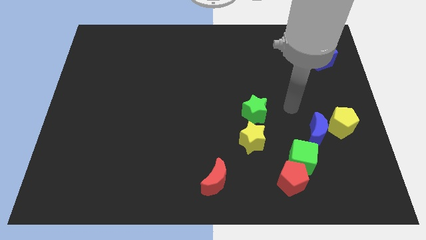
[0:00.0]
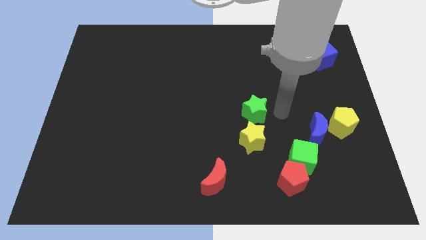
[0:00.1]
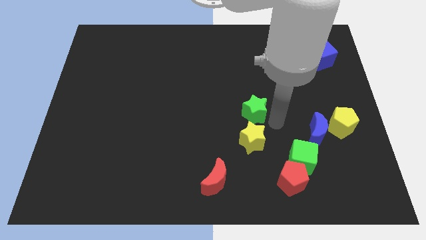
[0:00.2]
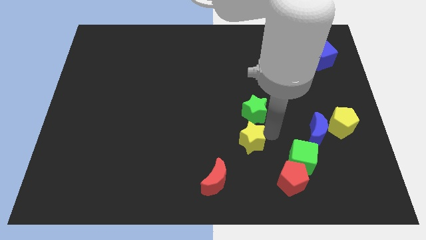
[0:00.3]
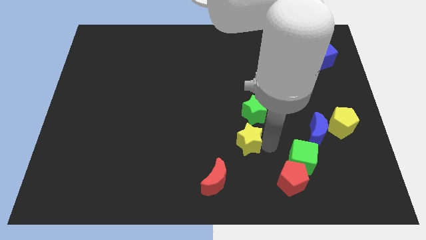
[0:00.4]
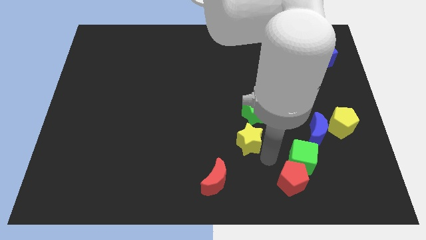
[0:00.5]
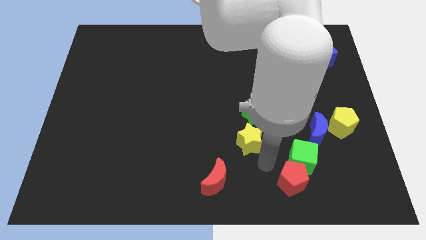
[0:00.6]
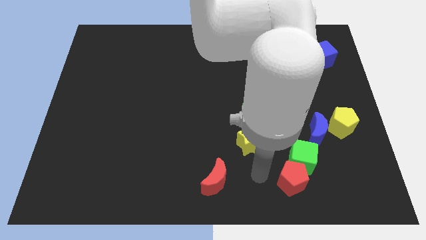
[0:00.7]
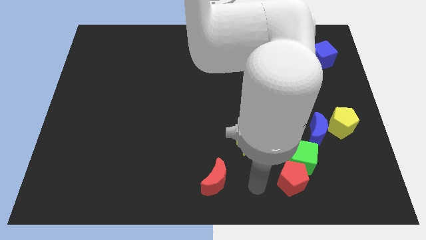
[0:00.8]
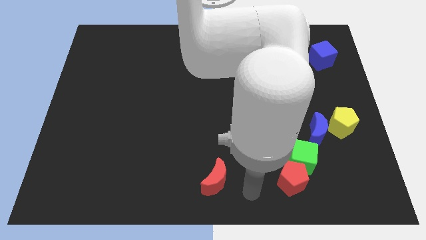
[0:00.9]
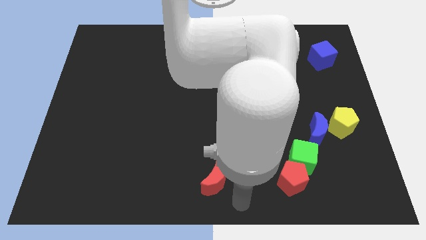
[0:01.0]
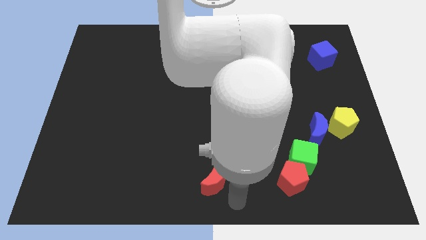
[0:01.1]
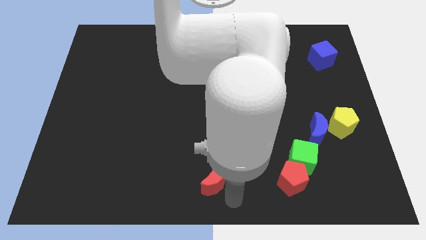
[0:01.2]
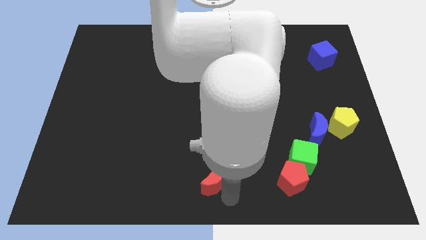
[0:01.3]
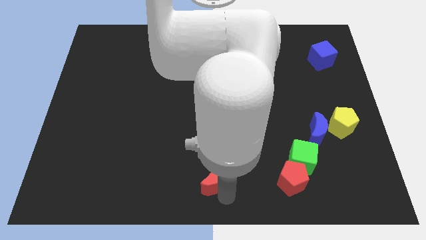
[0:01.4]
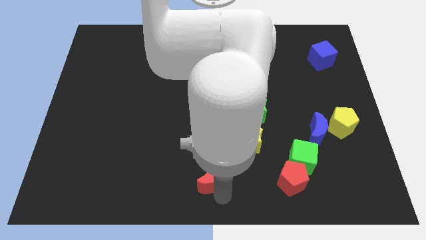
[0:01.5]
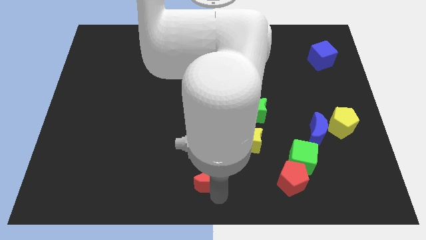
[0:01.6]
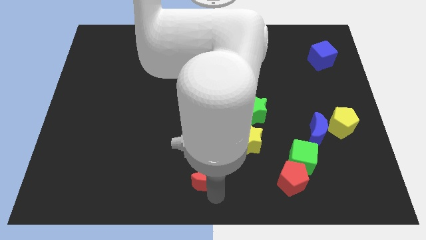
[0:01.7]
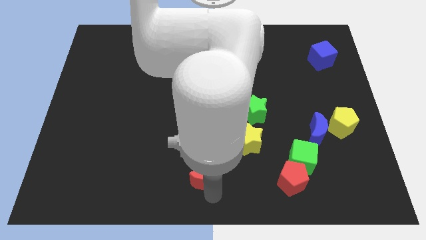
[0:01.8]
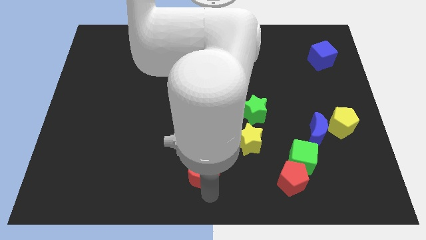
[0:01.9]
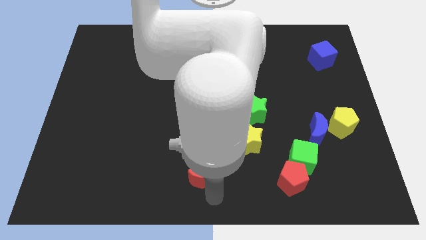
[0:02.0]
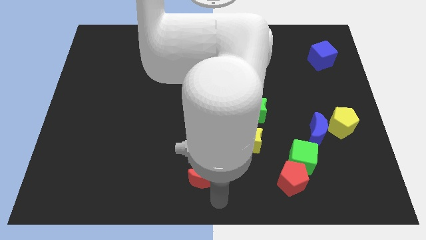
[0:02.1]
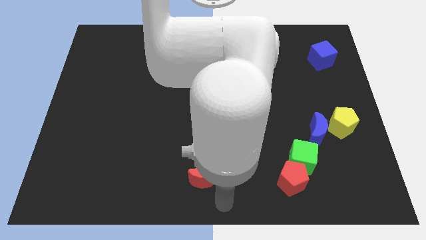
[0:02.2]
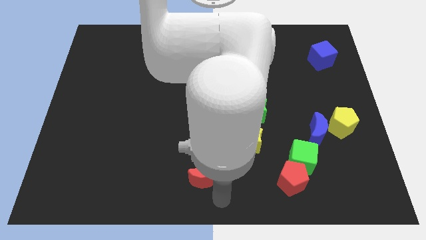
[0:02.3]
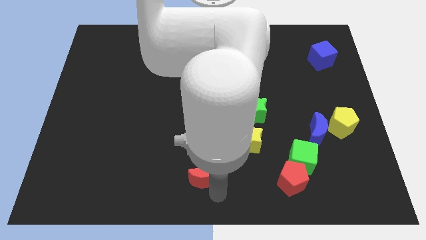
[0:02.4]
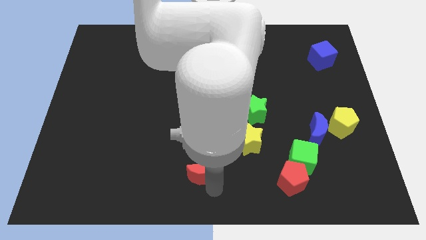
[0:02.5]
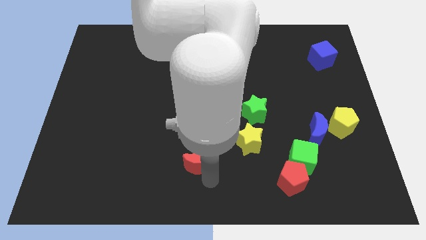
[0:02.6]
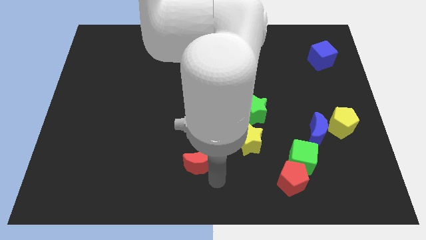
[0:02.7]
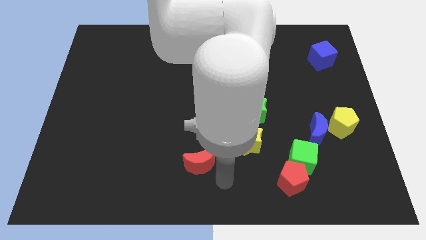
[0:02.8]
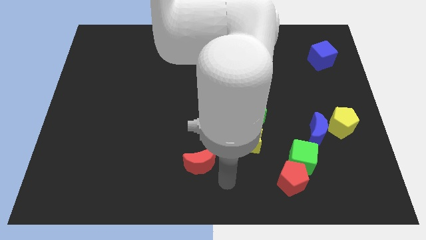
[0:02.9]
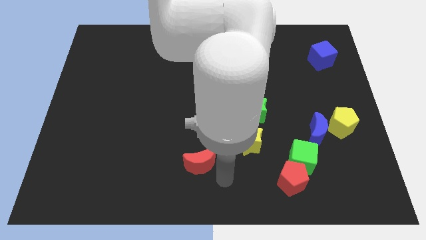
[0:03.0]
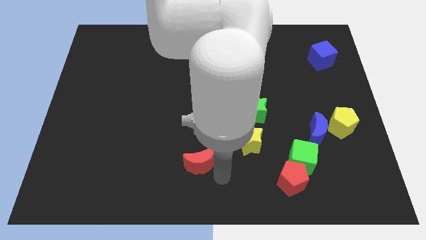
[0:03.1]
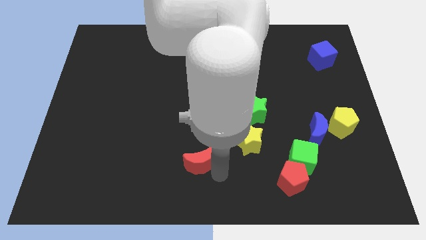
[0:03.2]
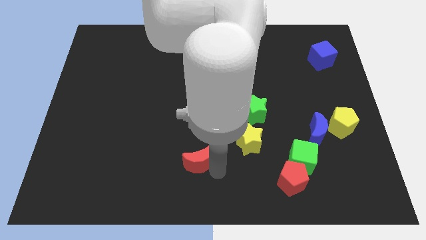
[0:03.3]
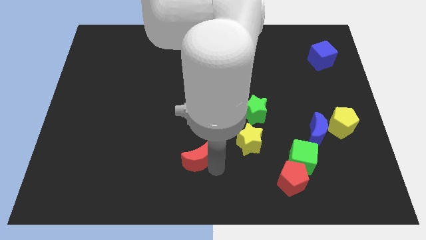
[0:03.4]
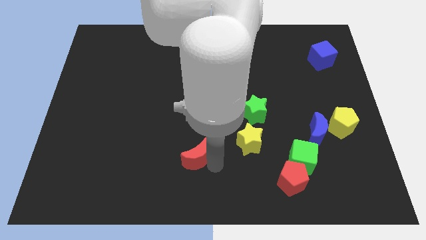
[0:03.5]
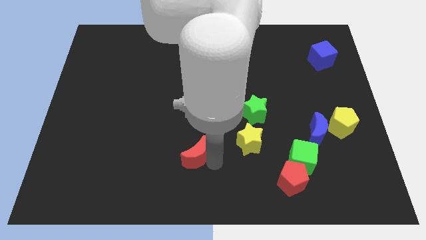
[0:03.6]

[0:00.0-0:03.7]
slide the red moon upwards and left a little

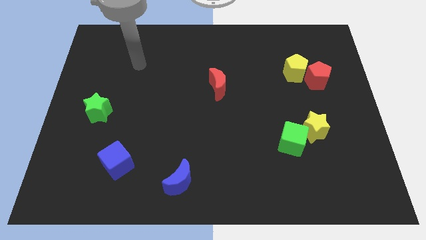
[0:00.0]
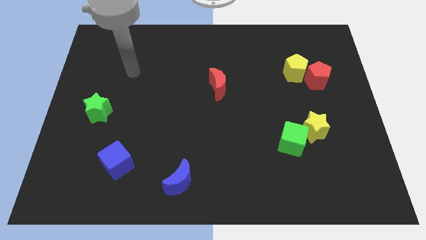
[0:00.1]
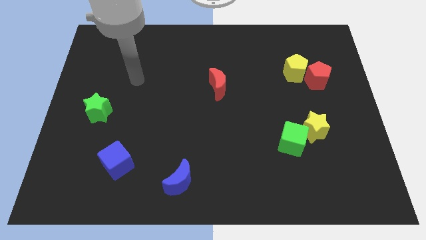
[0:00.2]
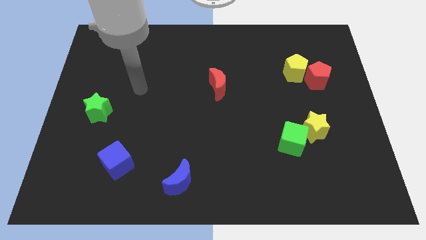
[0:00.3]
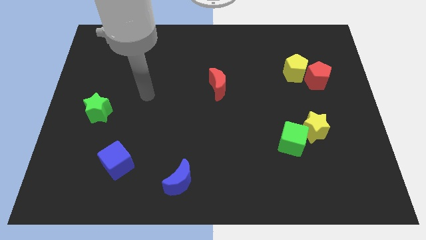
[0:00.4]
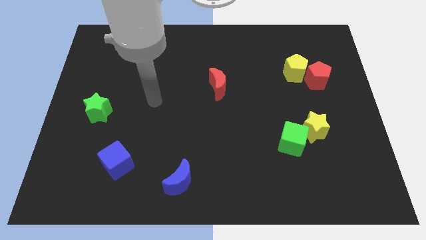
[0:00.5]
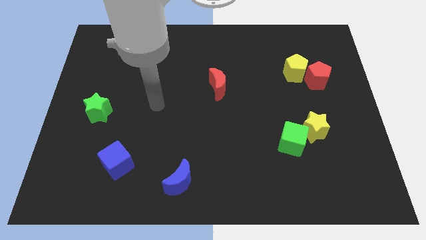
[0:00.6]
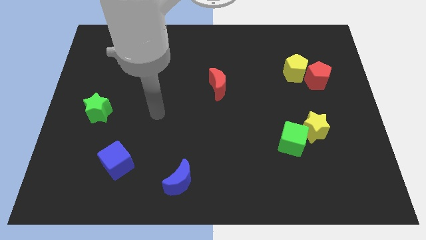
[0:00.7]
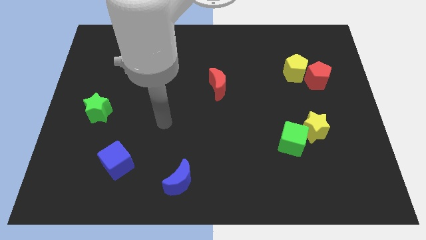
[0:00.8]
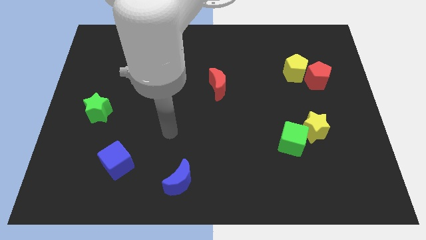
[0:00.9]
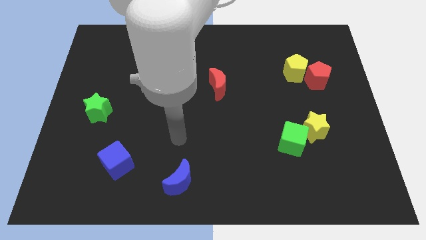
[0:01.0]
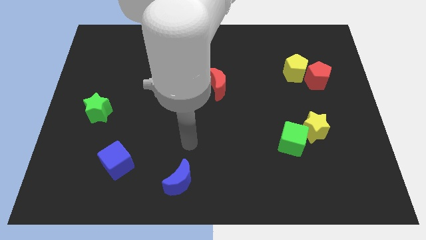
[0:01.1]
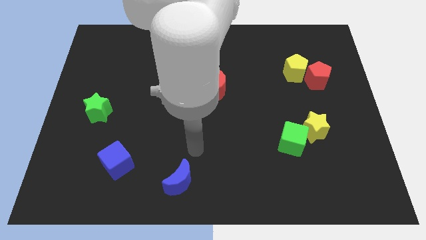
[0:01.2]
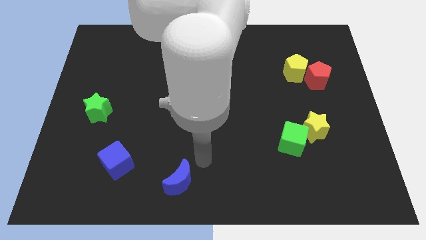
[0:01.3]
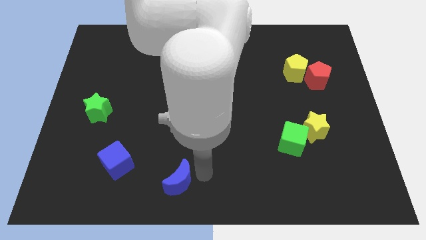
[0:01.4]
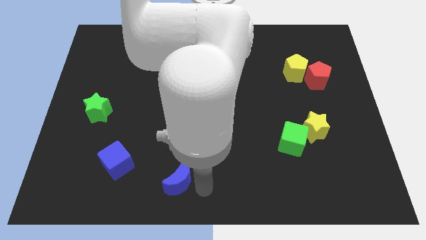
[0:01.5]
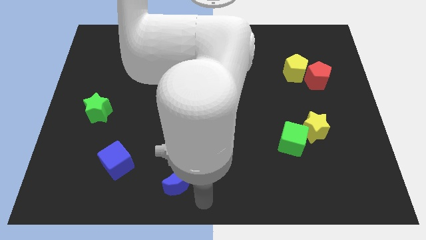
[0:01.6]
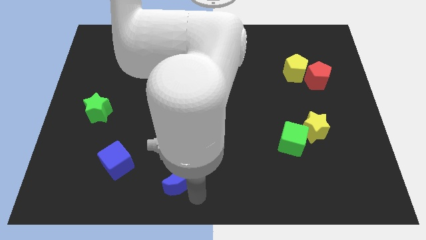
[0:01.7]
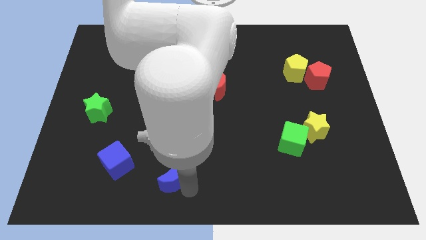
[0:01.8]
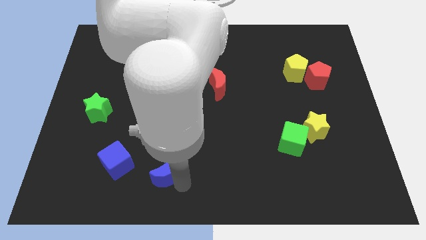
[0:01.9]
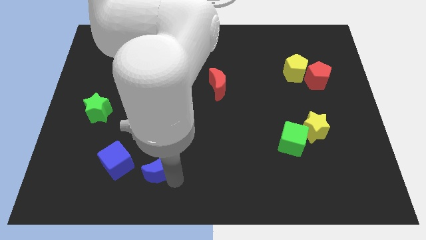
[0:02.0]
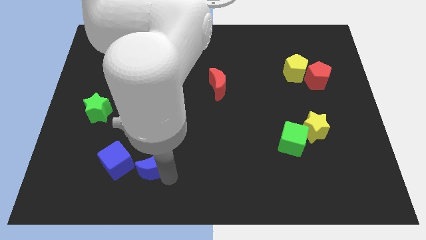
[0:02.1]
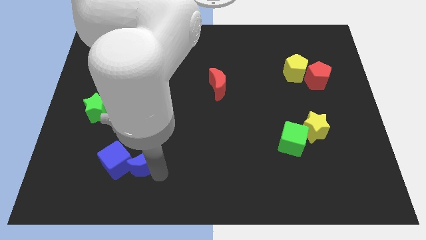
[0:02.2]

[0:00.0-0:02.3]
slide the blue moon upwards and left diagonally a little

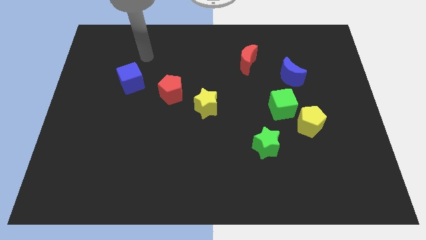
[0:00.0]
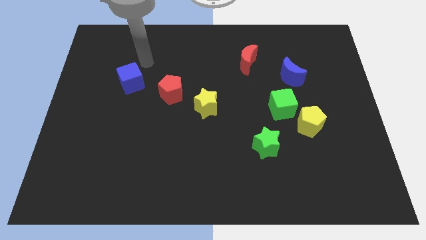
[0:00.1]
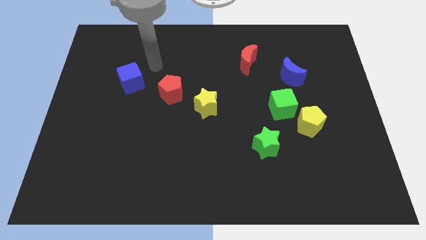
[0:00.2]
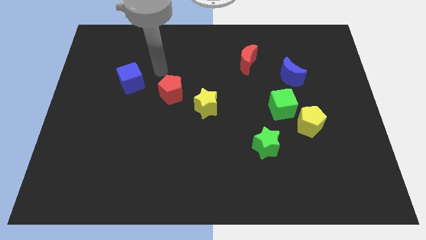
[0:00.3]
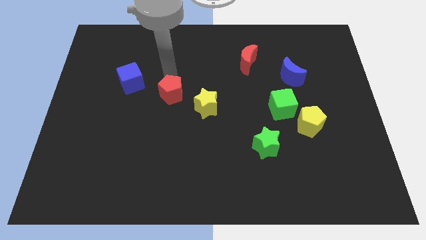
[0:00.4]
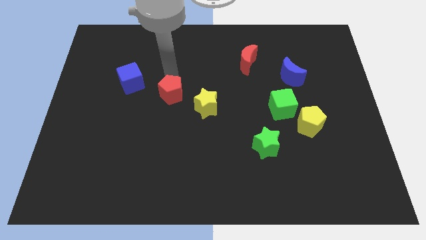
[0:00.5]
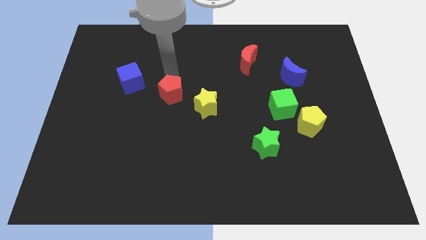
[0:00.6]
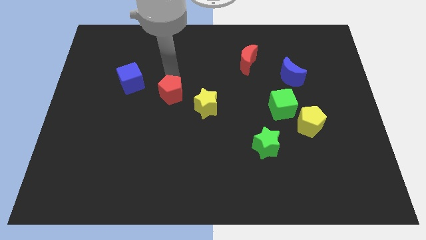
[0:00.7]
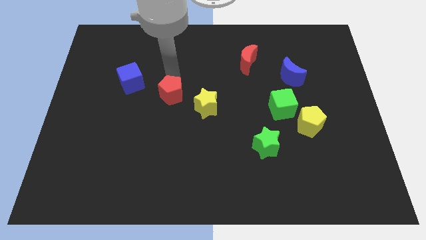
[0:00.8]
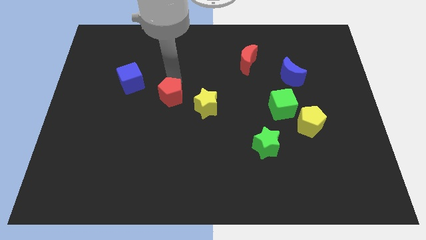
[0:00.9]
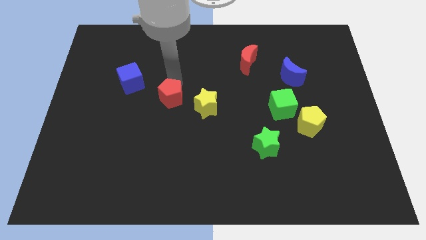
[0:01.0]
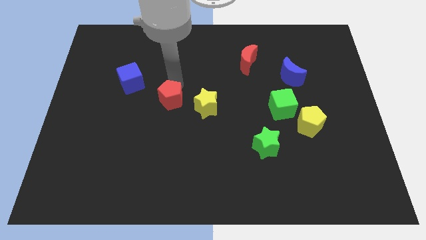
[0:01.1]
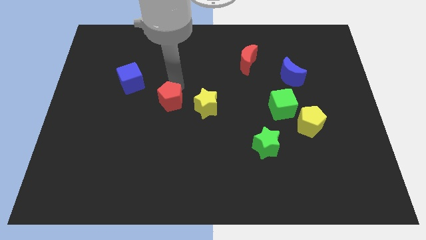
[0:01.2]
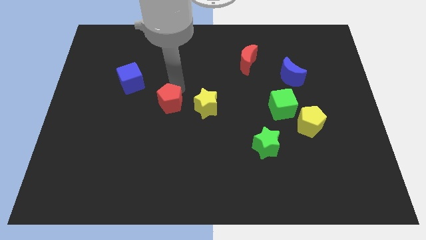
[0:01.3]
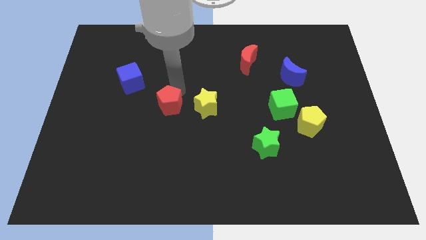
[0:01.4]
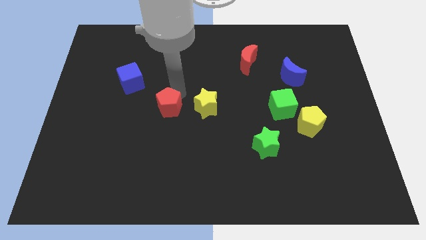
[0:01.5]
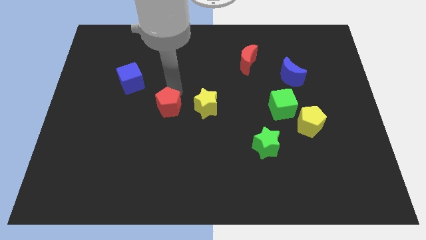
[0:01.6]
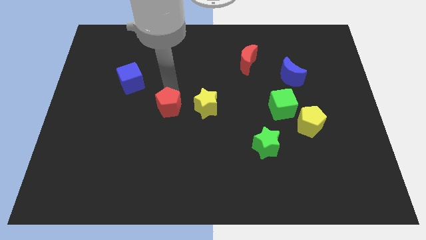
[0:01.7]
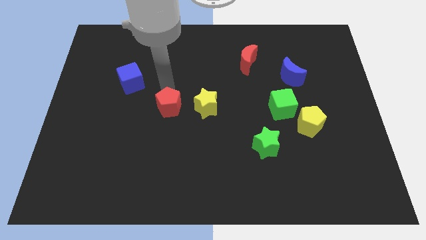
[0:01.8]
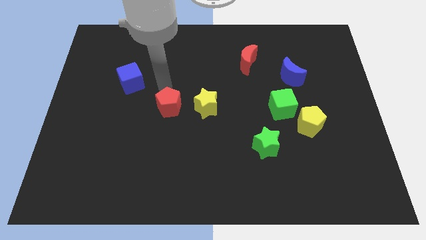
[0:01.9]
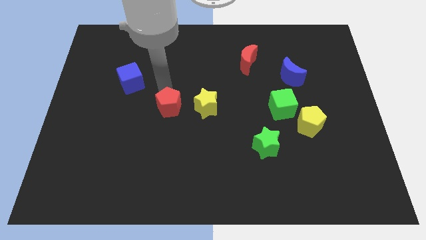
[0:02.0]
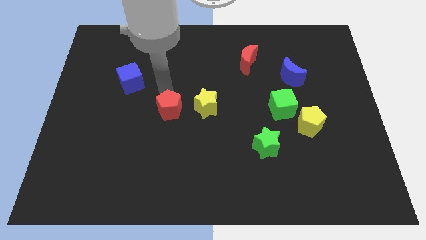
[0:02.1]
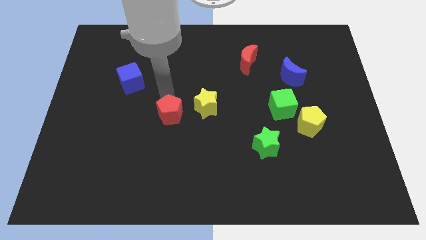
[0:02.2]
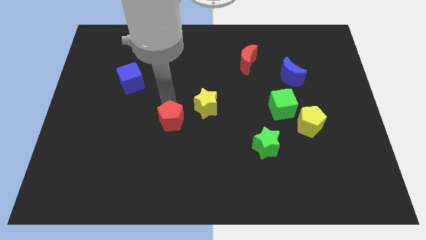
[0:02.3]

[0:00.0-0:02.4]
move the red pentagon down somewhat
